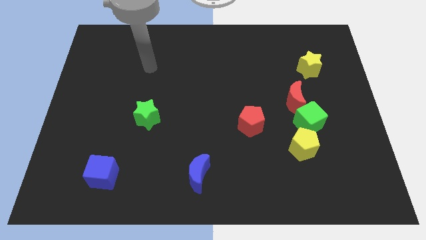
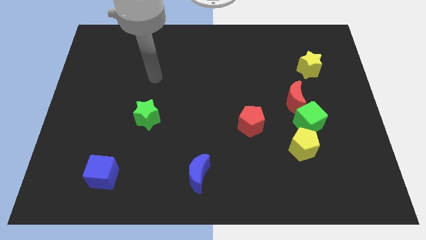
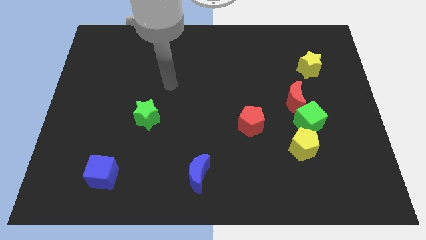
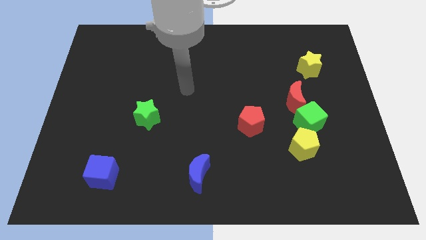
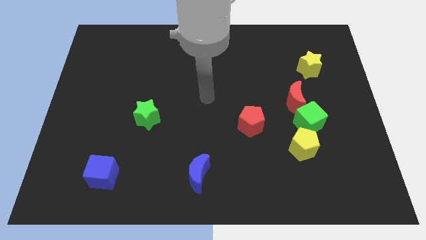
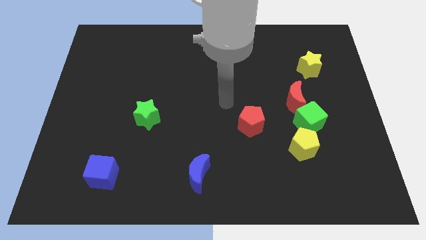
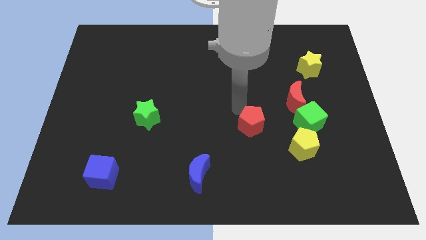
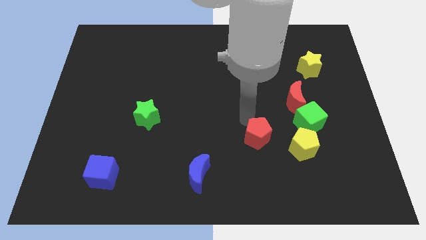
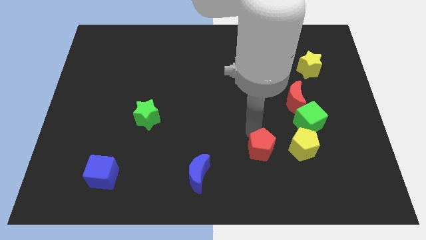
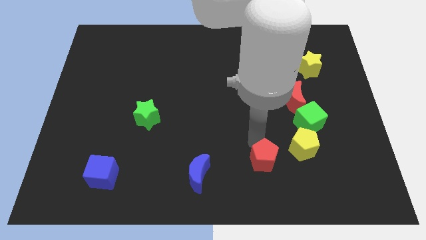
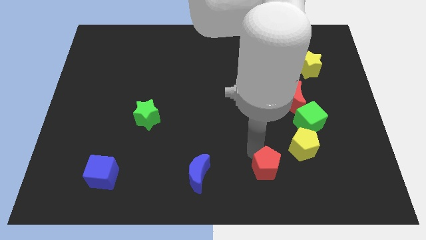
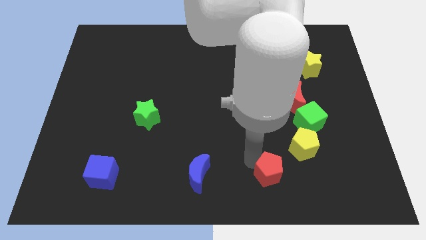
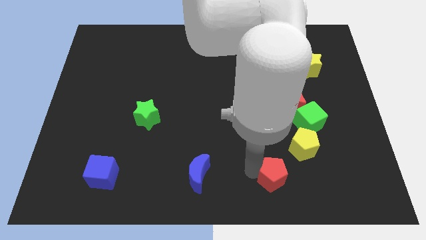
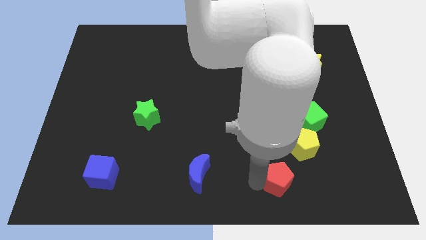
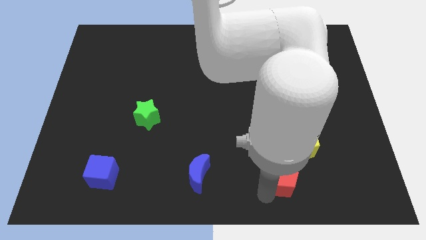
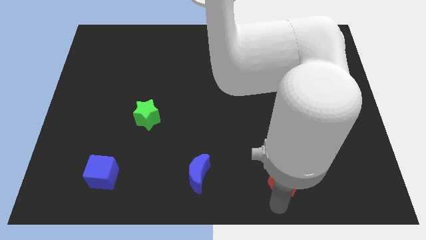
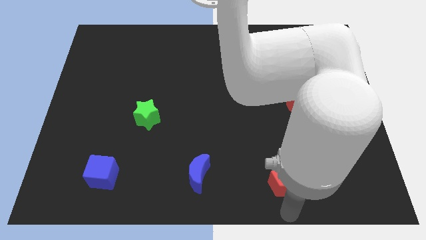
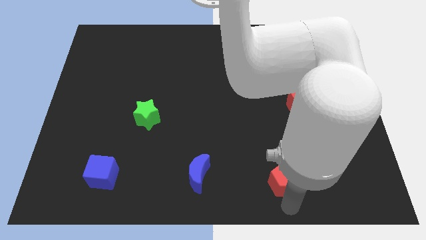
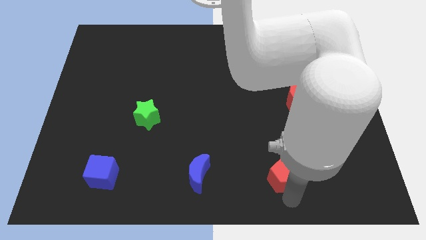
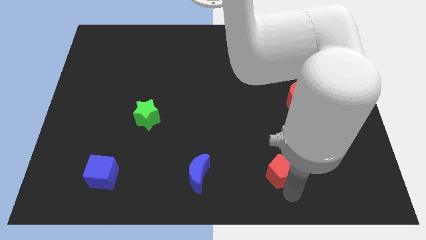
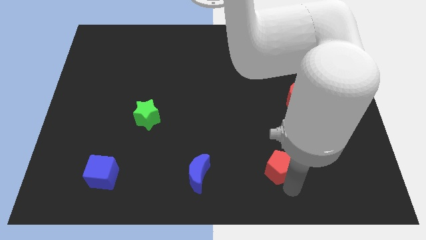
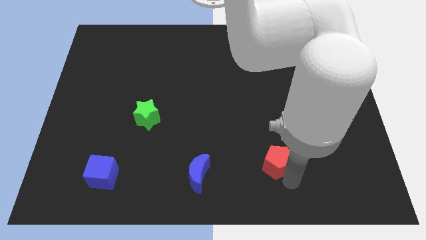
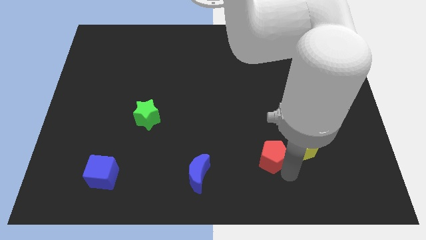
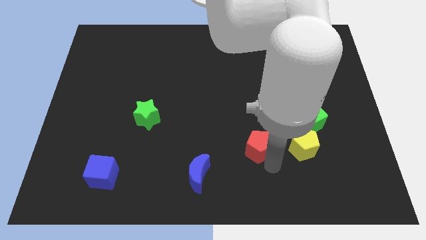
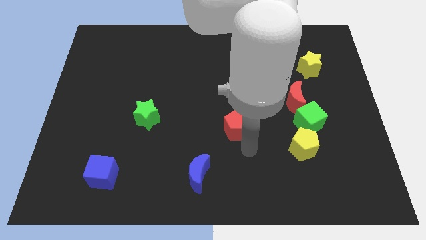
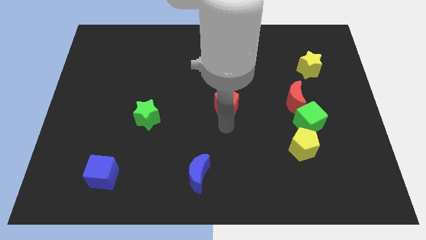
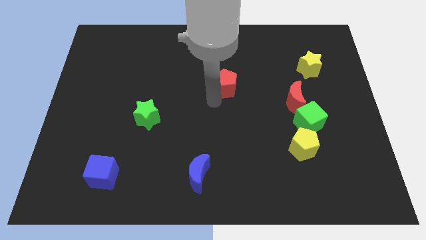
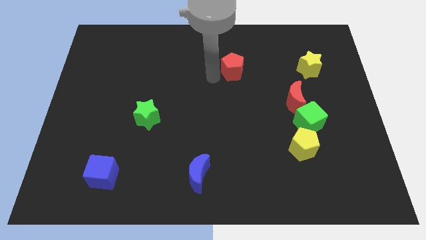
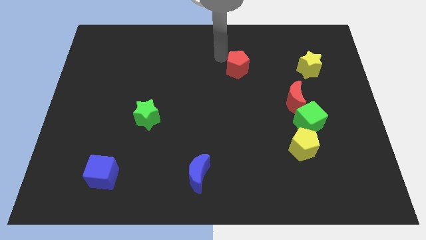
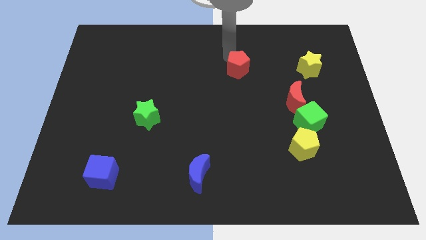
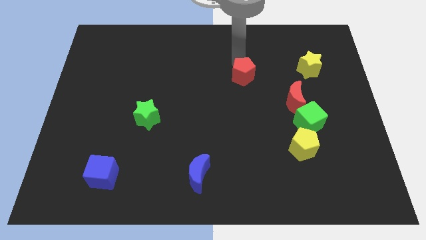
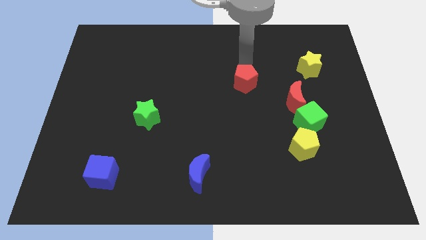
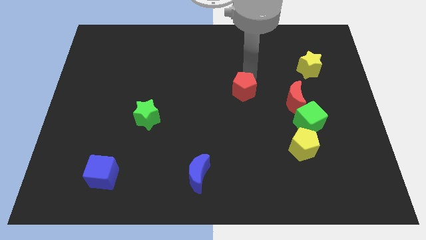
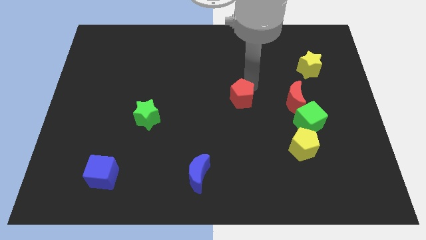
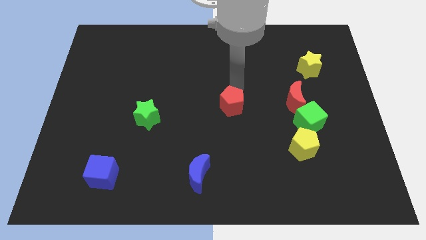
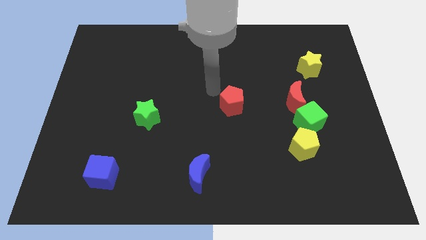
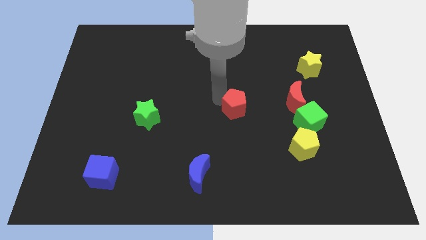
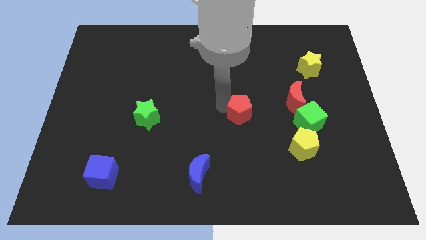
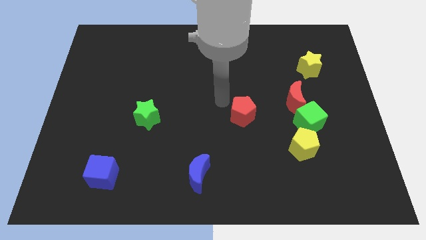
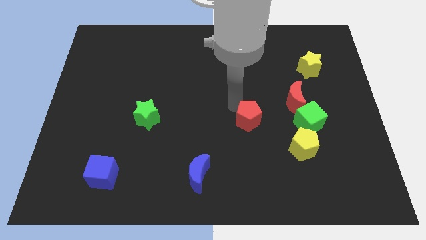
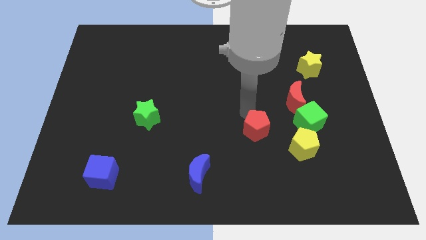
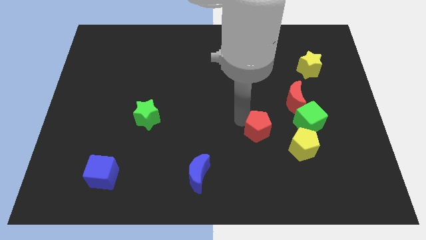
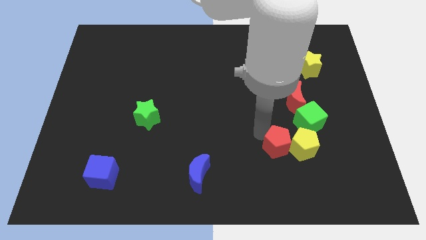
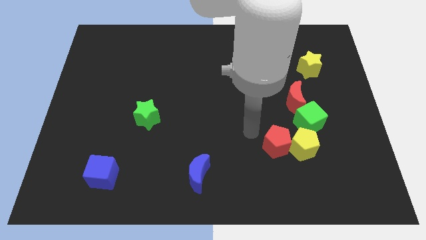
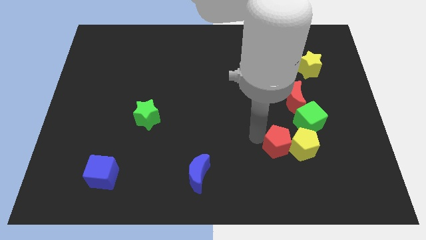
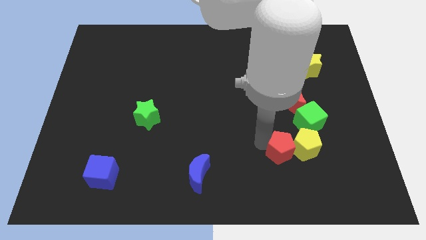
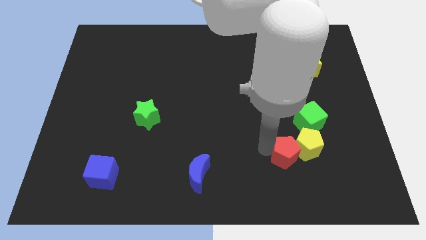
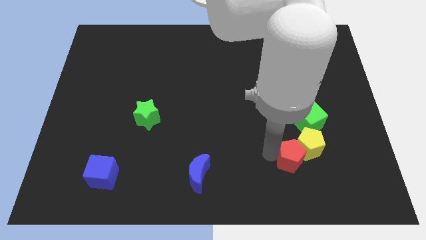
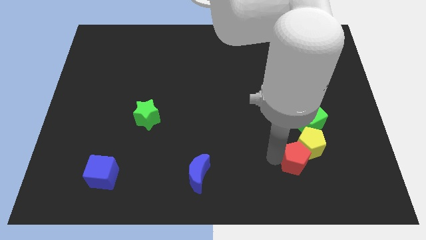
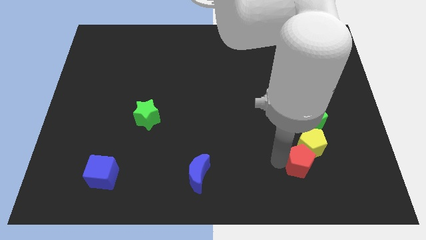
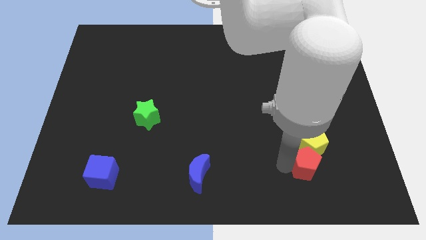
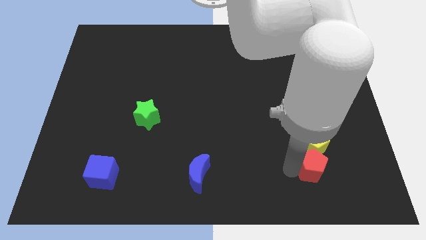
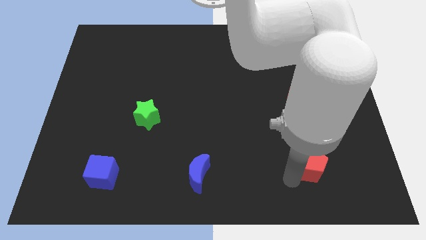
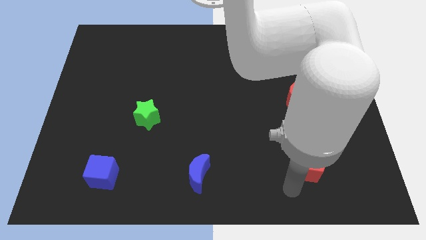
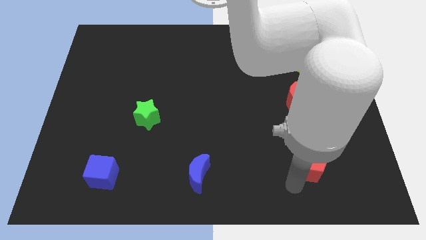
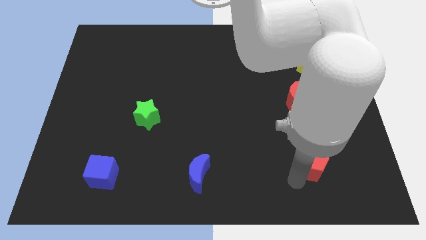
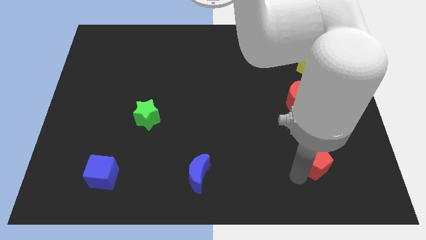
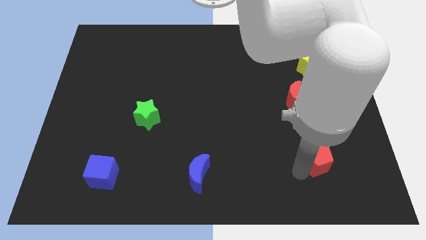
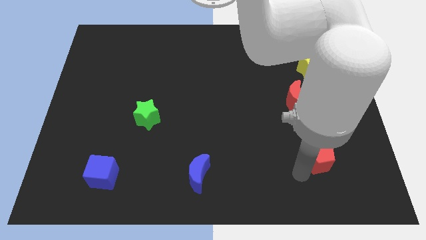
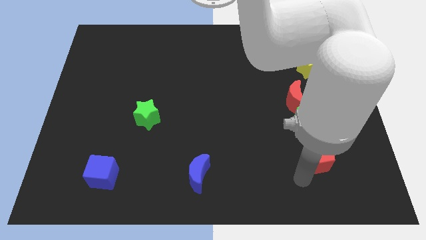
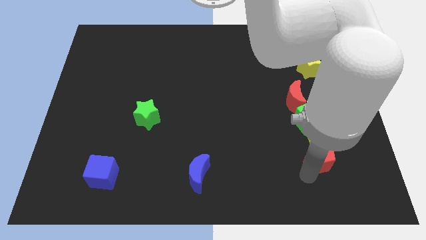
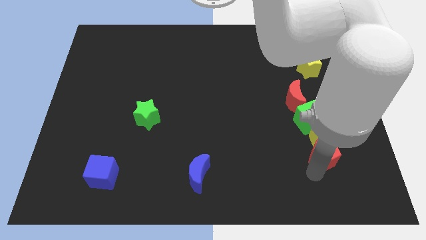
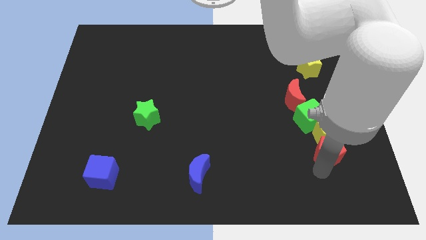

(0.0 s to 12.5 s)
put the red pentagon to the bottom right of the green cube

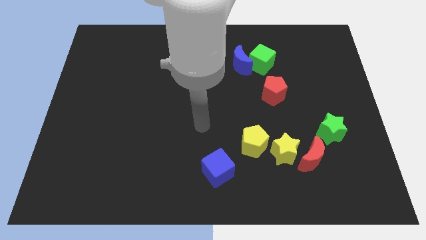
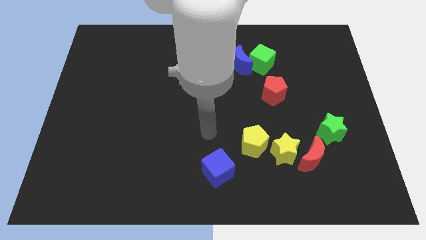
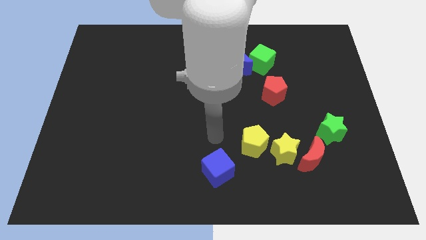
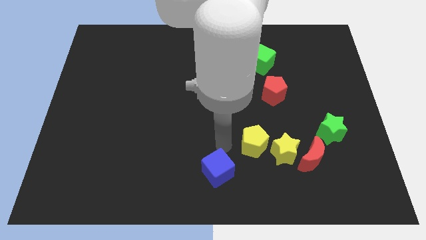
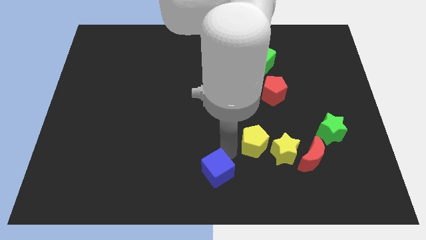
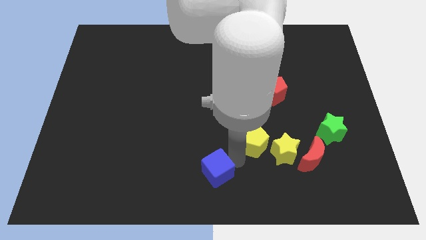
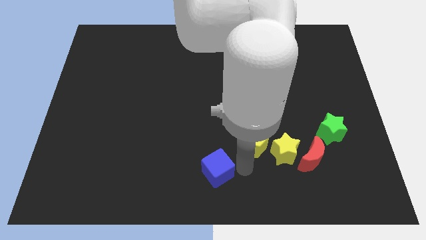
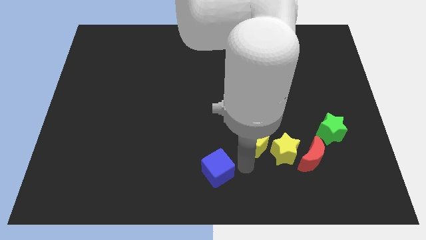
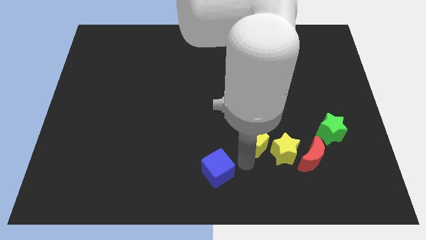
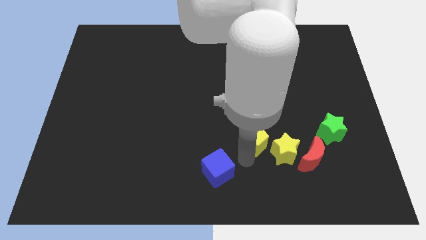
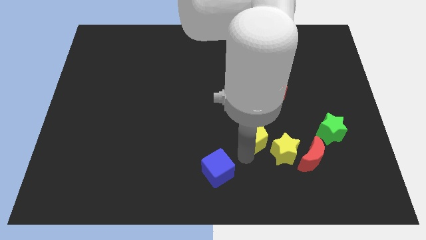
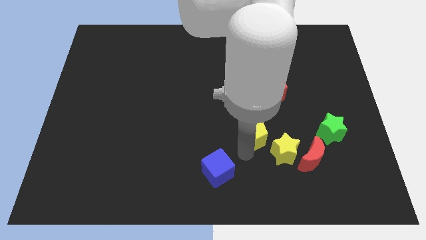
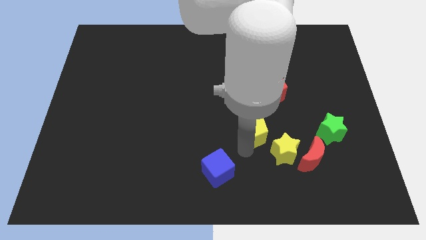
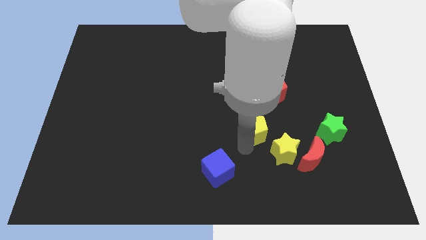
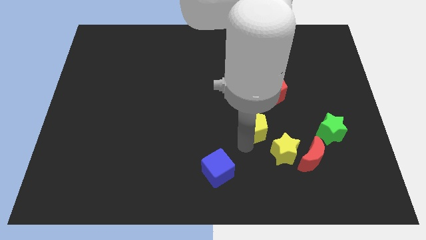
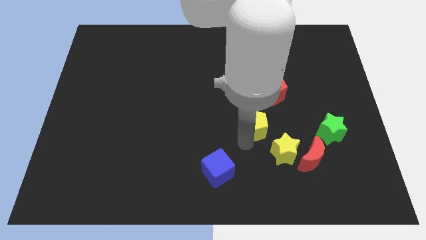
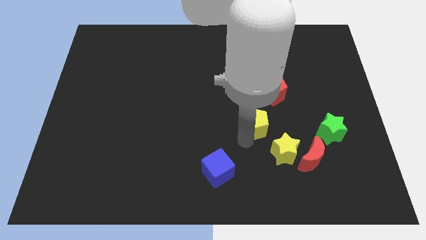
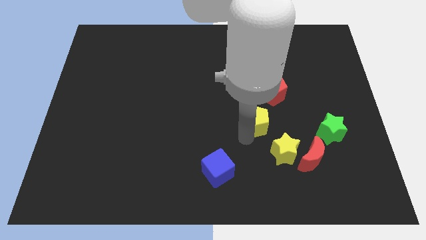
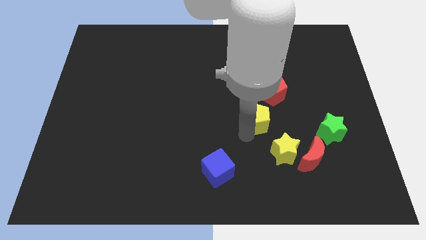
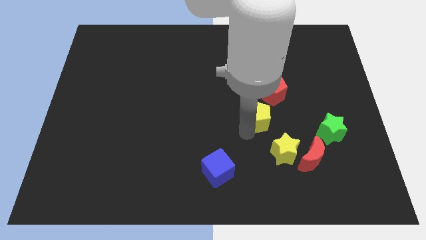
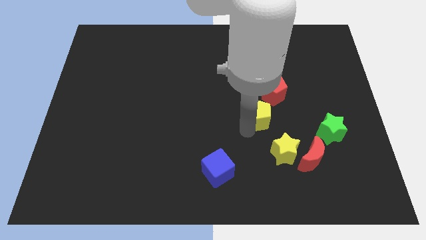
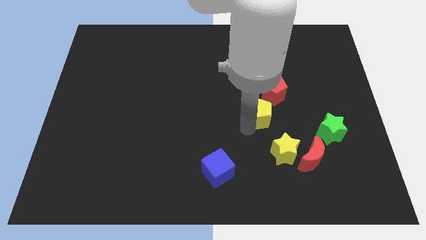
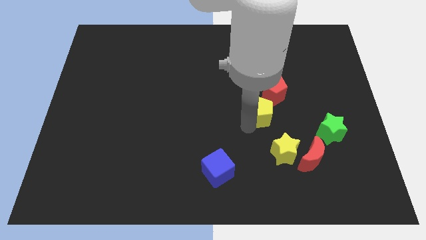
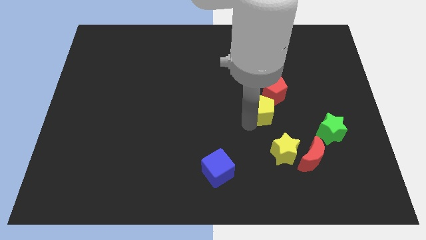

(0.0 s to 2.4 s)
push the yellow pentagon to the bottom side of the green cube
